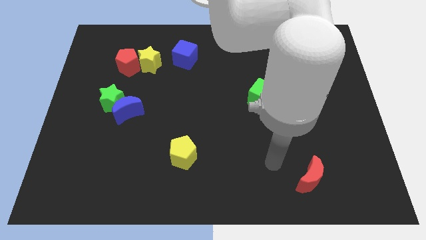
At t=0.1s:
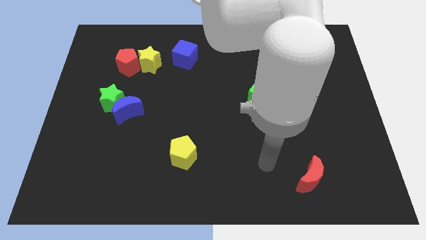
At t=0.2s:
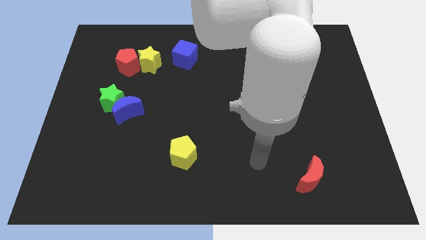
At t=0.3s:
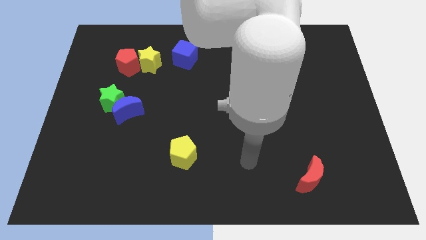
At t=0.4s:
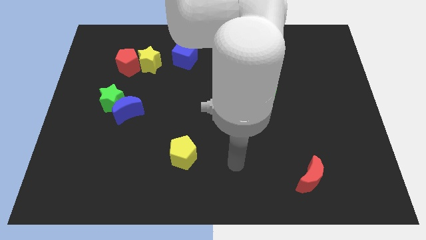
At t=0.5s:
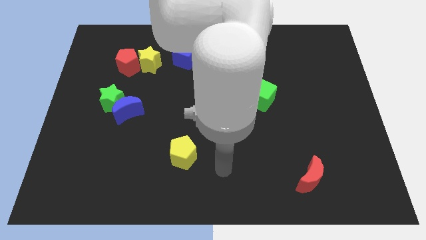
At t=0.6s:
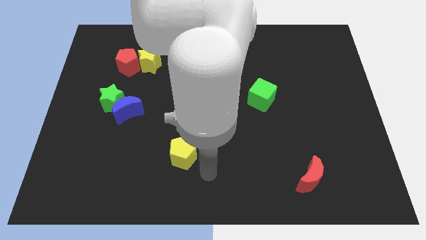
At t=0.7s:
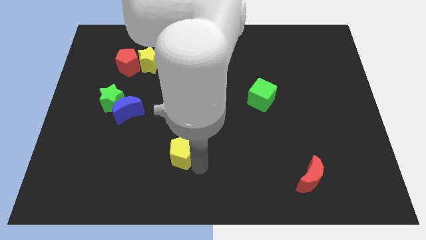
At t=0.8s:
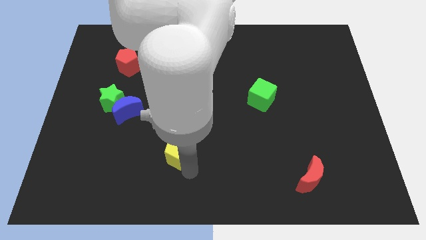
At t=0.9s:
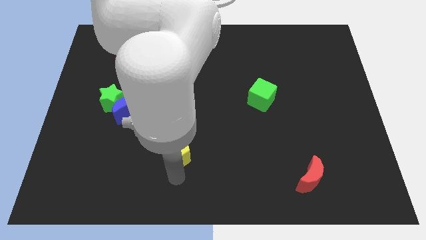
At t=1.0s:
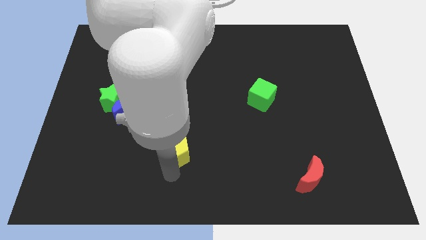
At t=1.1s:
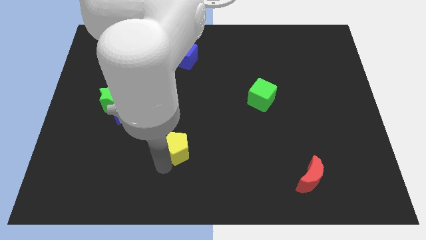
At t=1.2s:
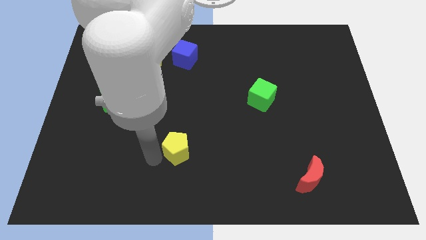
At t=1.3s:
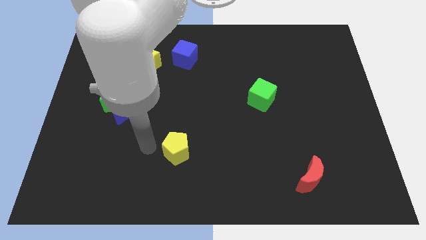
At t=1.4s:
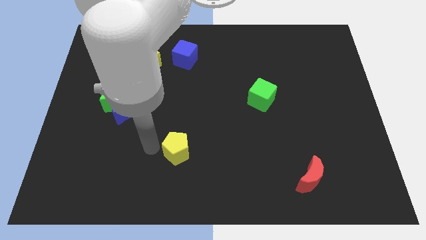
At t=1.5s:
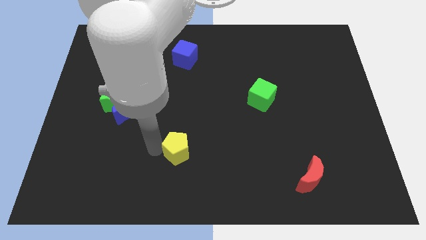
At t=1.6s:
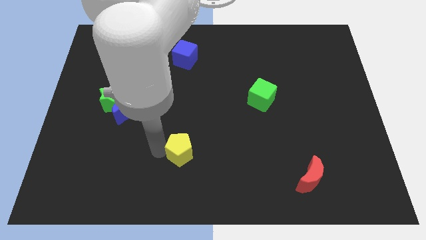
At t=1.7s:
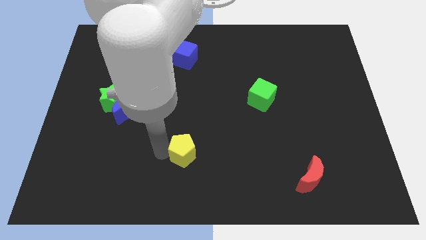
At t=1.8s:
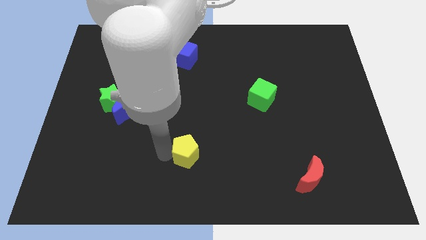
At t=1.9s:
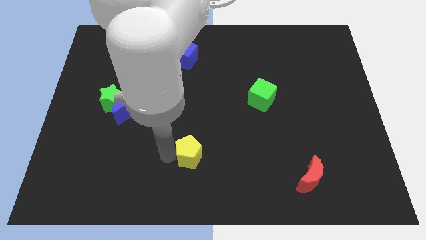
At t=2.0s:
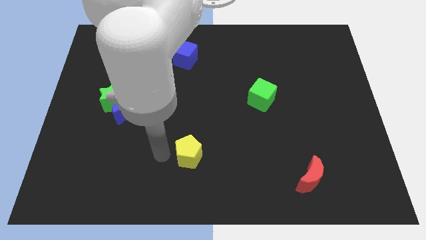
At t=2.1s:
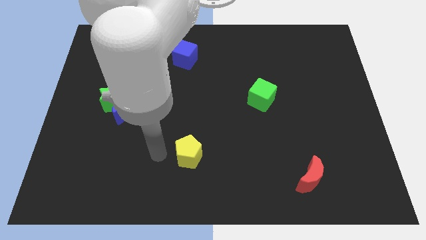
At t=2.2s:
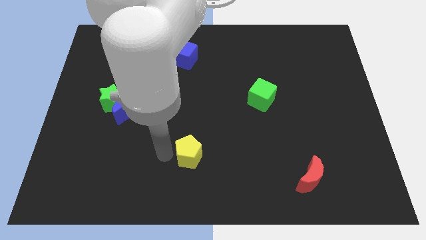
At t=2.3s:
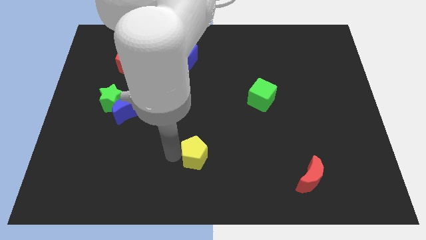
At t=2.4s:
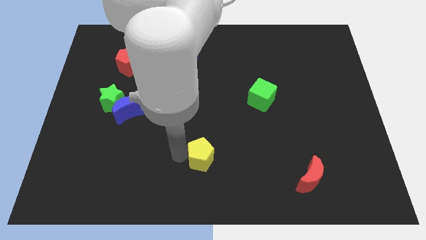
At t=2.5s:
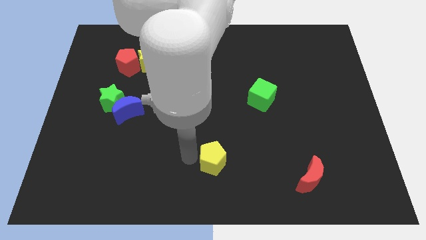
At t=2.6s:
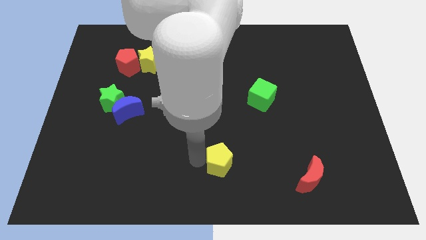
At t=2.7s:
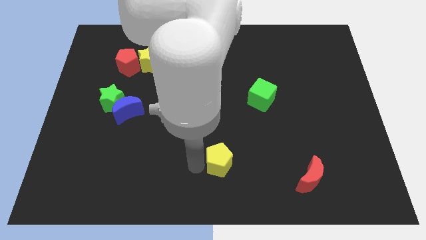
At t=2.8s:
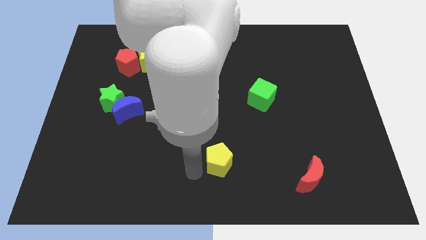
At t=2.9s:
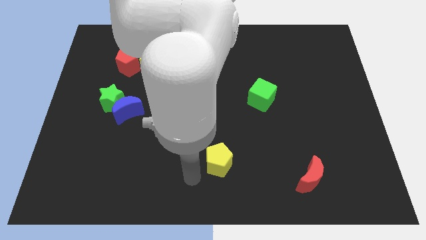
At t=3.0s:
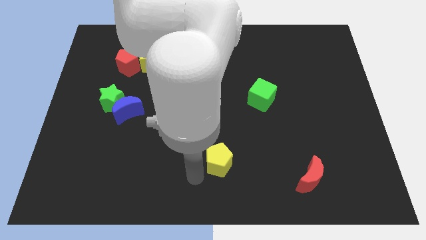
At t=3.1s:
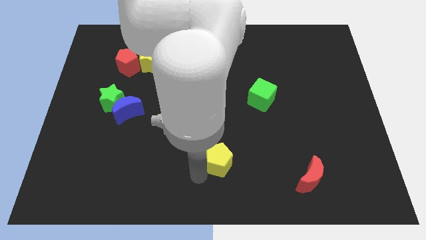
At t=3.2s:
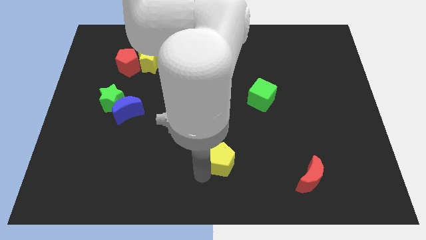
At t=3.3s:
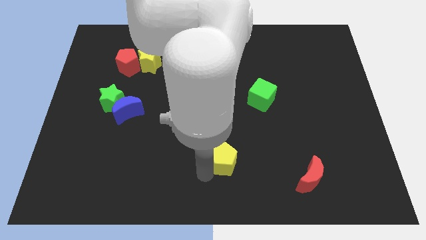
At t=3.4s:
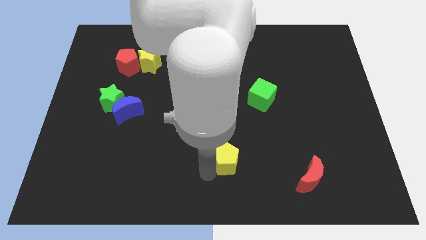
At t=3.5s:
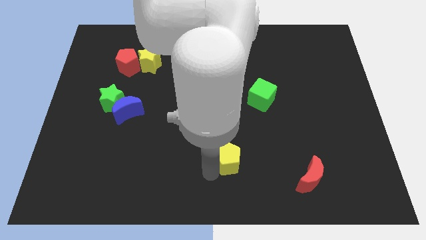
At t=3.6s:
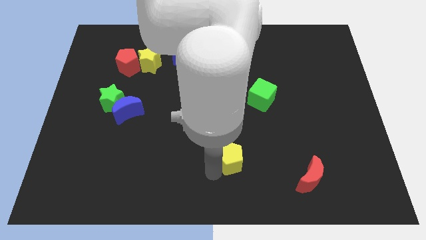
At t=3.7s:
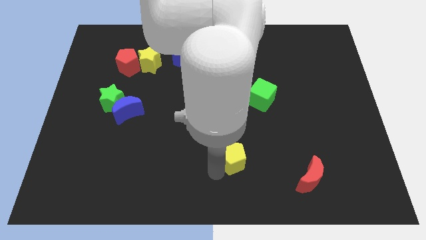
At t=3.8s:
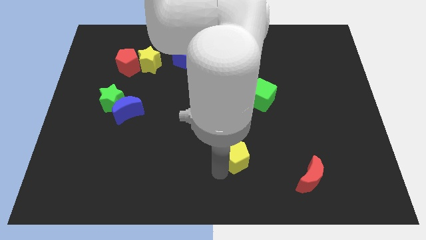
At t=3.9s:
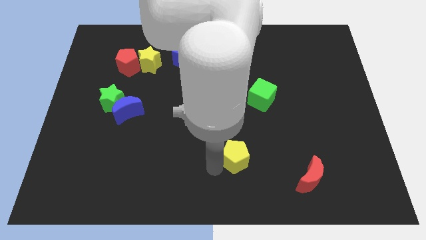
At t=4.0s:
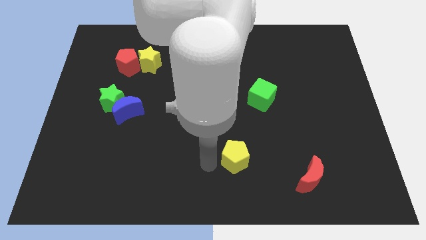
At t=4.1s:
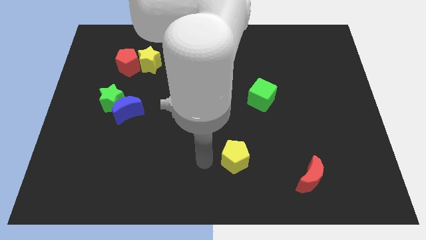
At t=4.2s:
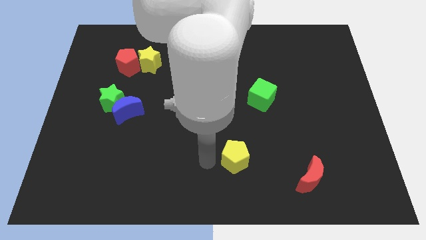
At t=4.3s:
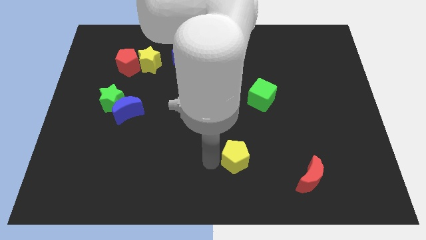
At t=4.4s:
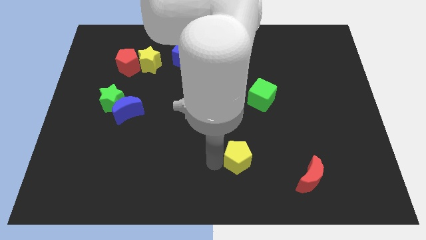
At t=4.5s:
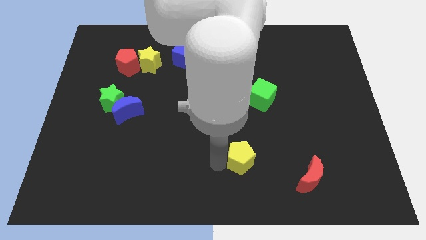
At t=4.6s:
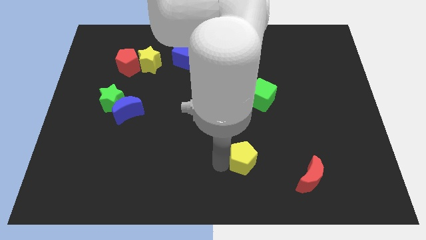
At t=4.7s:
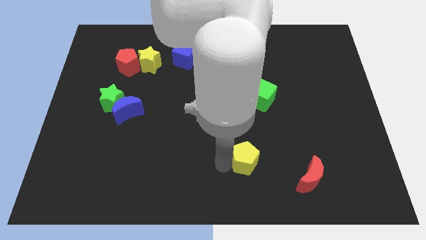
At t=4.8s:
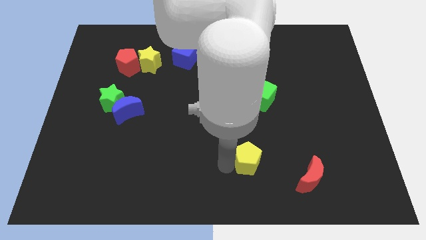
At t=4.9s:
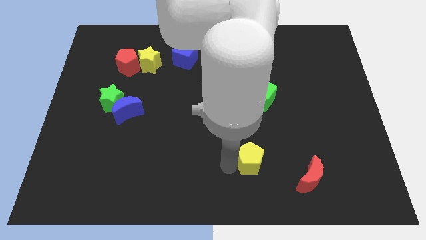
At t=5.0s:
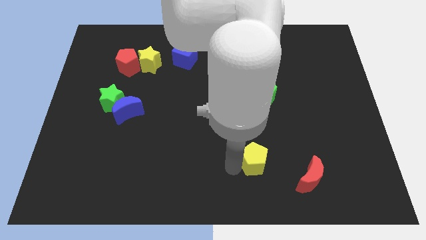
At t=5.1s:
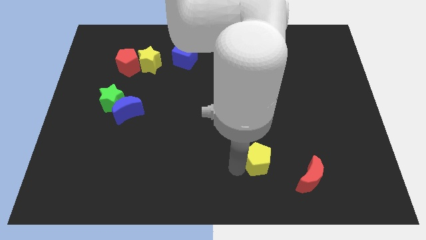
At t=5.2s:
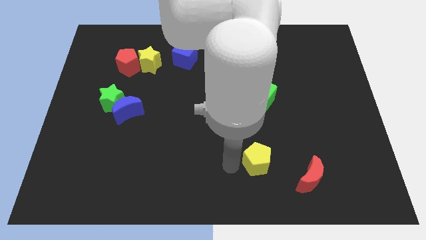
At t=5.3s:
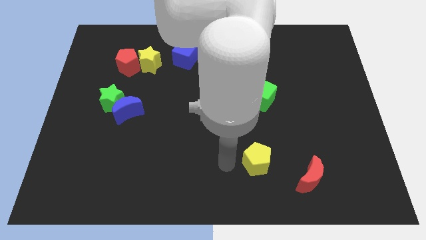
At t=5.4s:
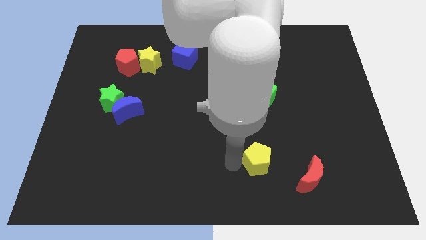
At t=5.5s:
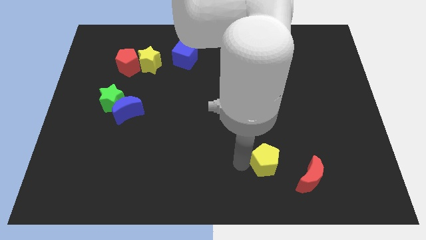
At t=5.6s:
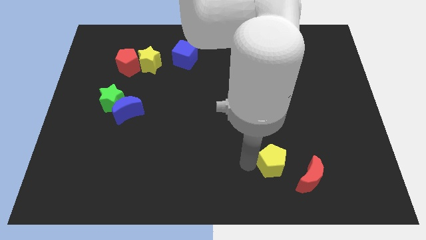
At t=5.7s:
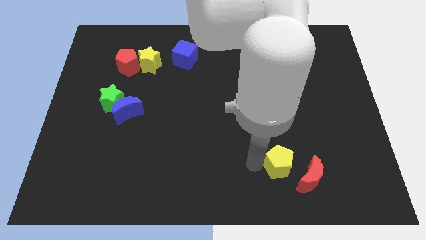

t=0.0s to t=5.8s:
push the yellow pentagon right

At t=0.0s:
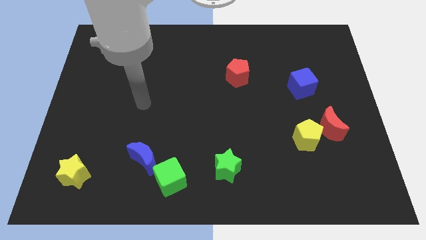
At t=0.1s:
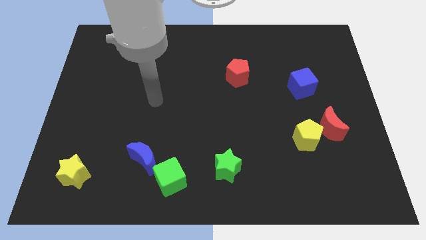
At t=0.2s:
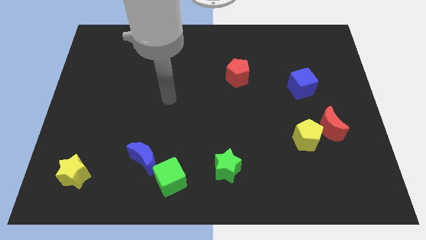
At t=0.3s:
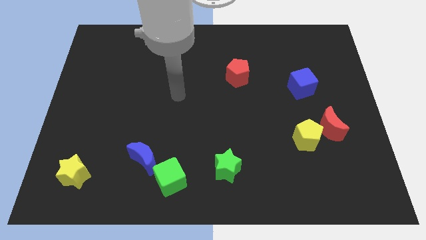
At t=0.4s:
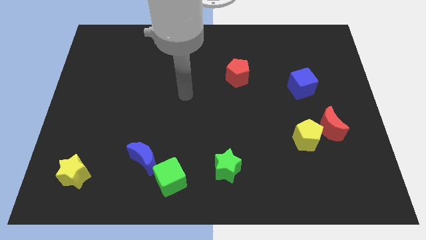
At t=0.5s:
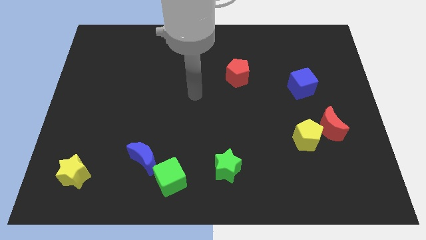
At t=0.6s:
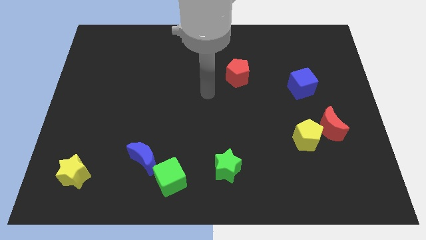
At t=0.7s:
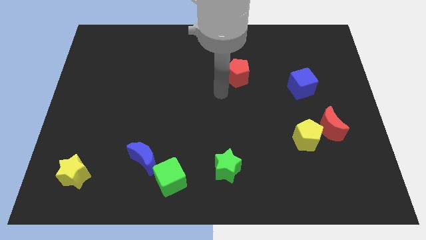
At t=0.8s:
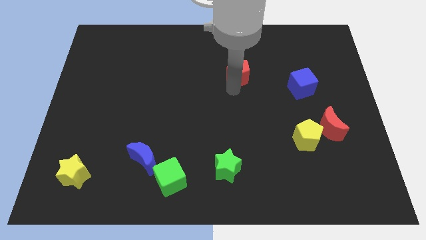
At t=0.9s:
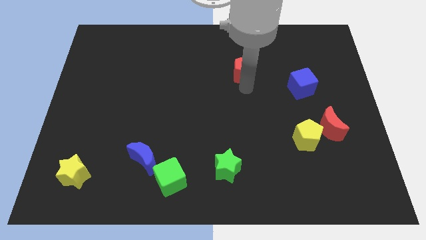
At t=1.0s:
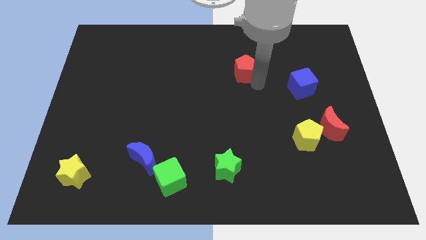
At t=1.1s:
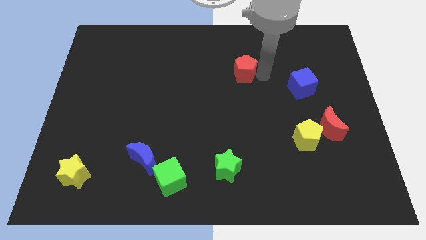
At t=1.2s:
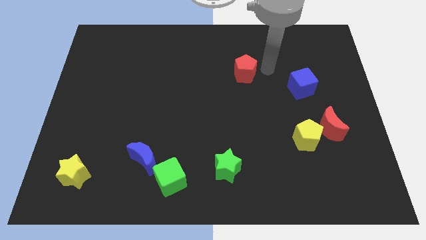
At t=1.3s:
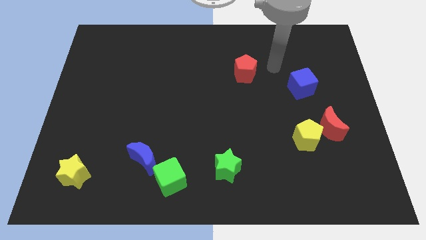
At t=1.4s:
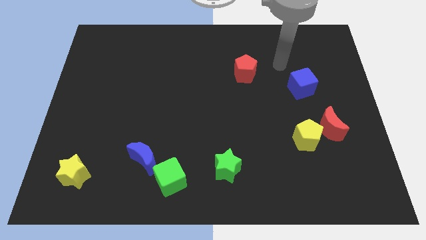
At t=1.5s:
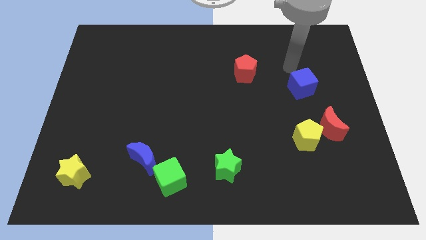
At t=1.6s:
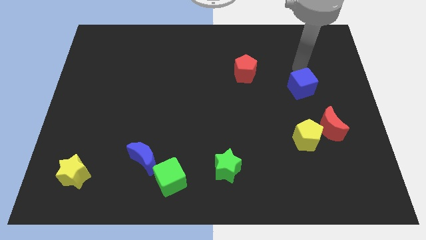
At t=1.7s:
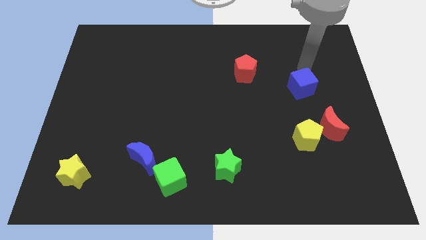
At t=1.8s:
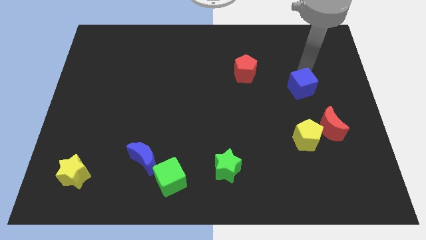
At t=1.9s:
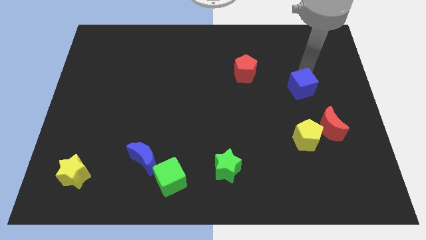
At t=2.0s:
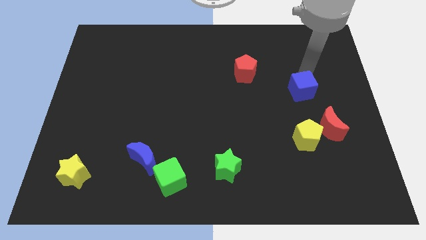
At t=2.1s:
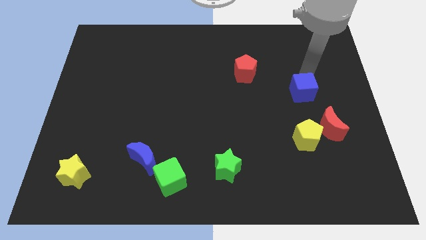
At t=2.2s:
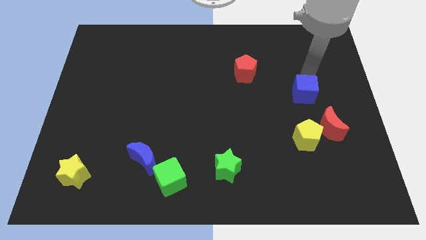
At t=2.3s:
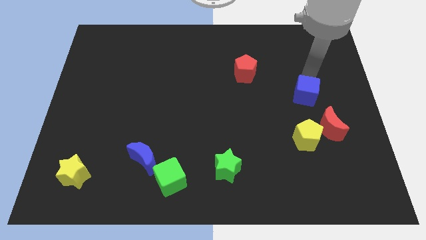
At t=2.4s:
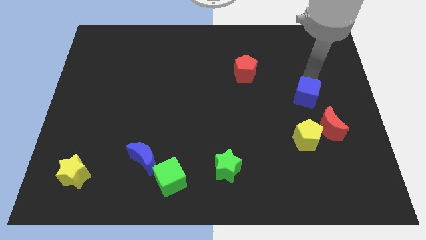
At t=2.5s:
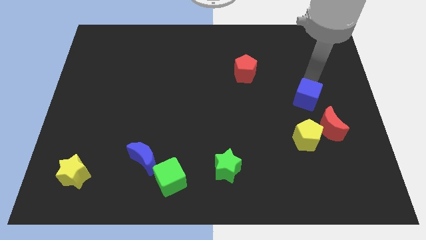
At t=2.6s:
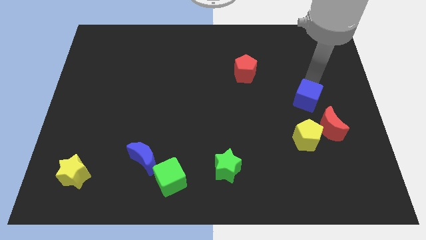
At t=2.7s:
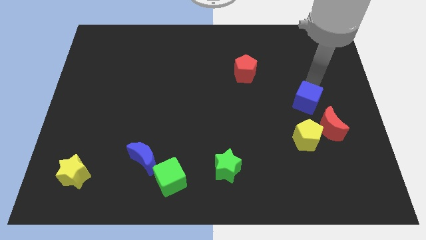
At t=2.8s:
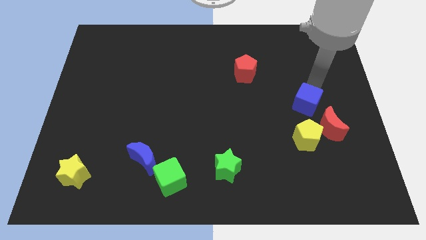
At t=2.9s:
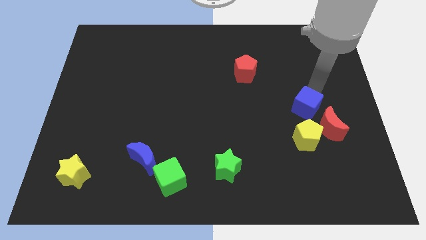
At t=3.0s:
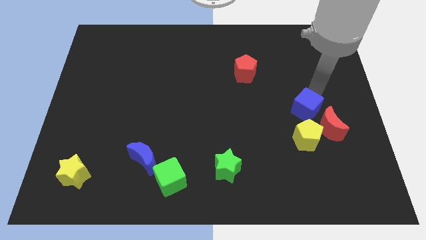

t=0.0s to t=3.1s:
slide the blue cube downwards somewhat
